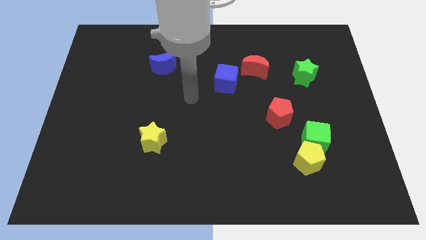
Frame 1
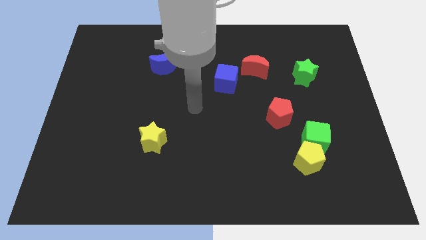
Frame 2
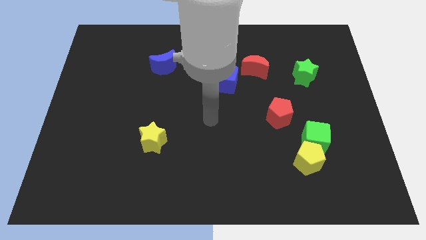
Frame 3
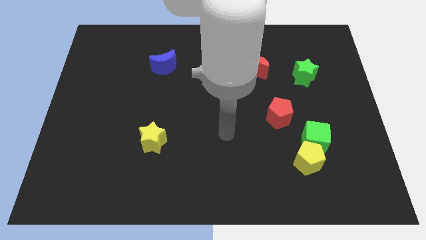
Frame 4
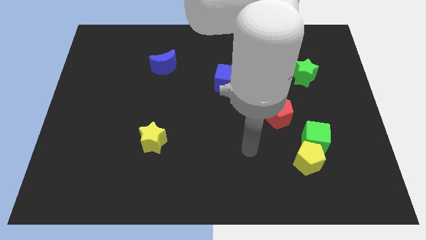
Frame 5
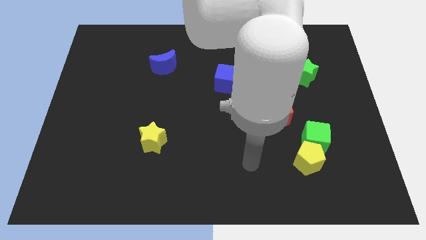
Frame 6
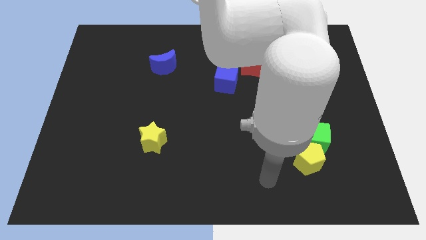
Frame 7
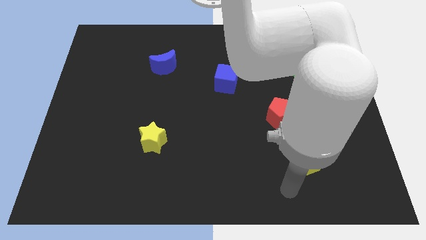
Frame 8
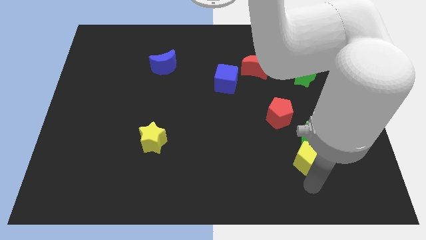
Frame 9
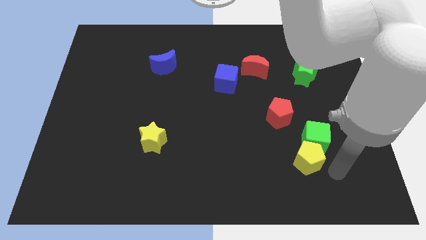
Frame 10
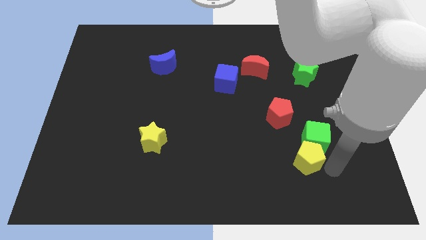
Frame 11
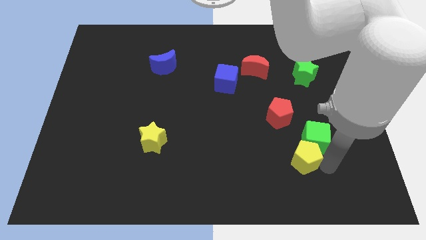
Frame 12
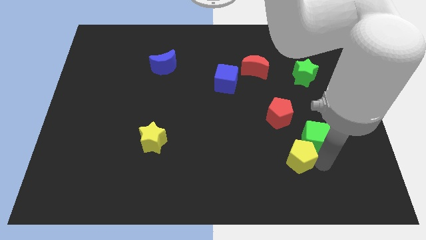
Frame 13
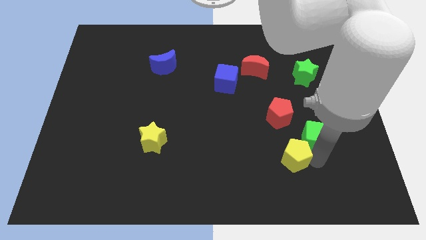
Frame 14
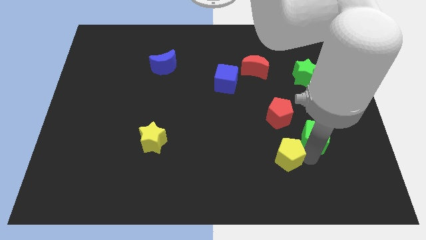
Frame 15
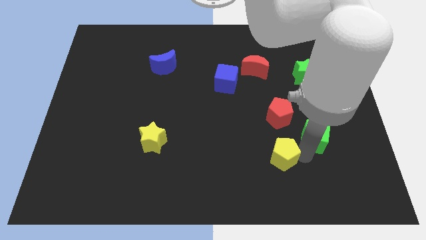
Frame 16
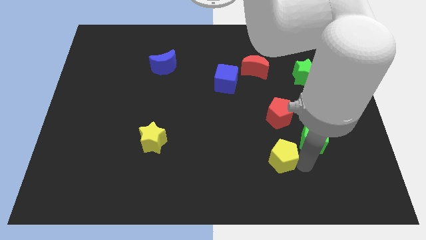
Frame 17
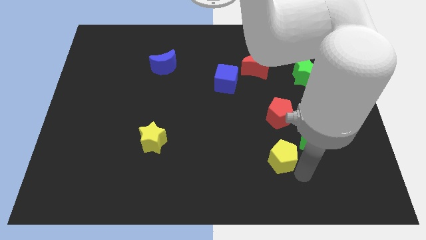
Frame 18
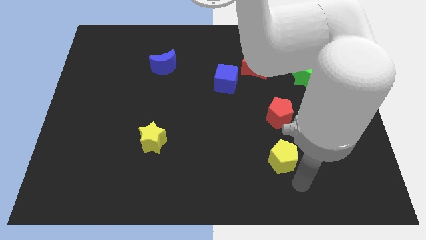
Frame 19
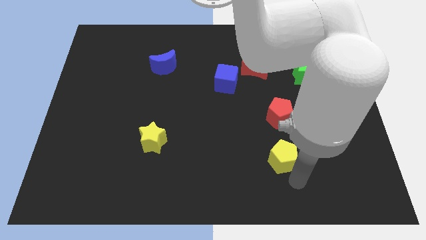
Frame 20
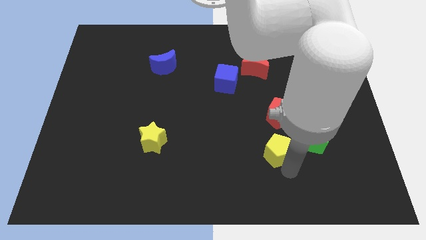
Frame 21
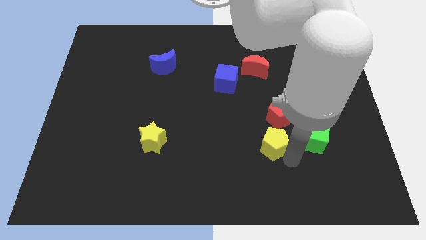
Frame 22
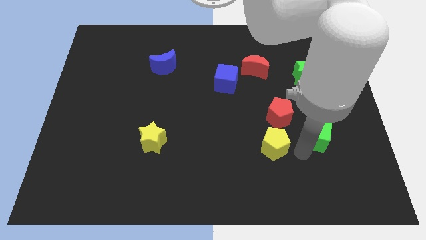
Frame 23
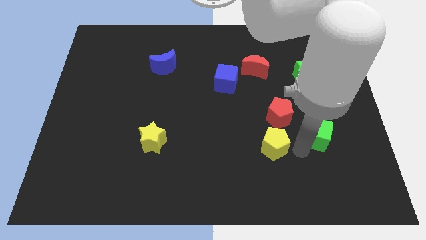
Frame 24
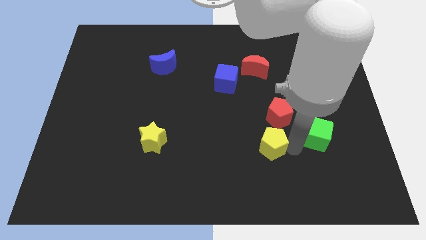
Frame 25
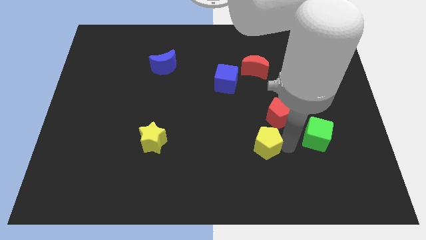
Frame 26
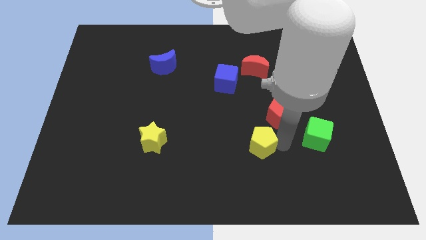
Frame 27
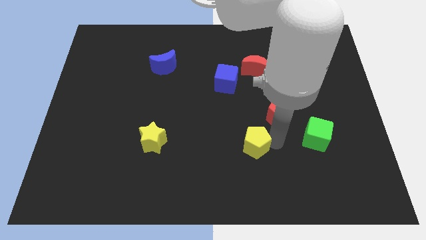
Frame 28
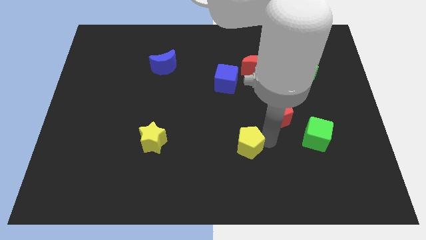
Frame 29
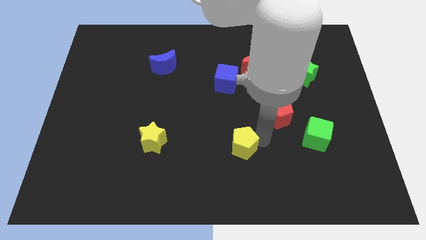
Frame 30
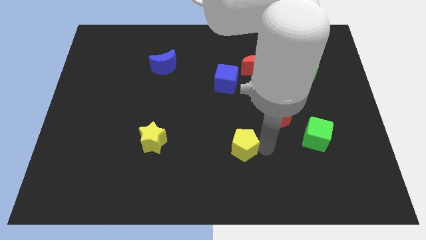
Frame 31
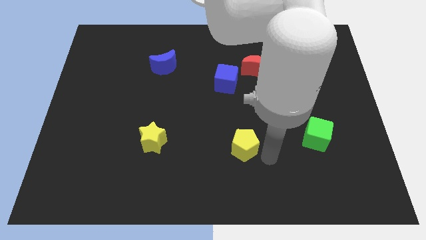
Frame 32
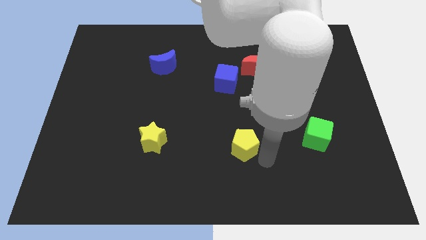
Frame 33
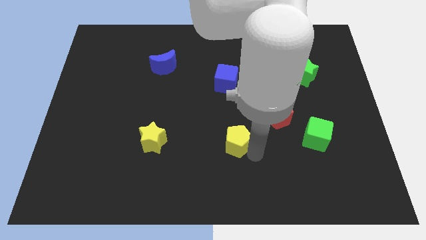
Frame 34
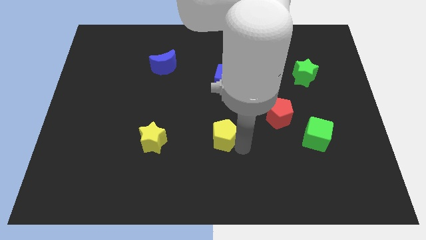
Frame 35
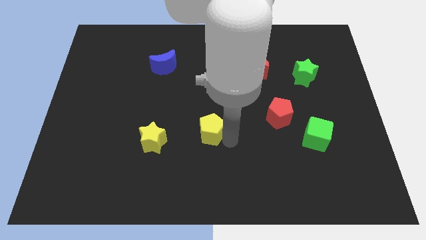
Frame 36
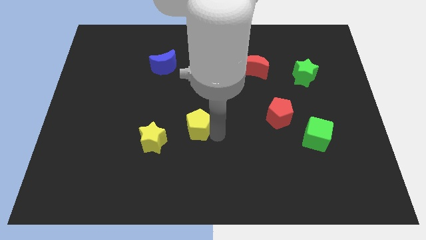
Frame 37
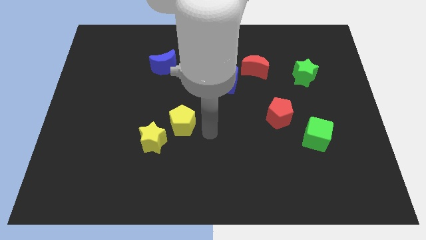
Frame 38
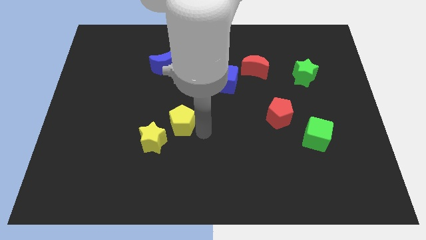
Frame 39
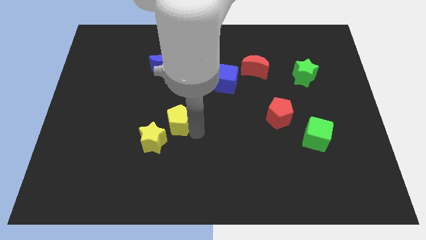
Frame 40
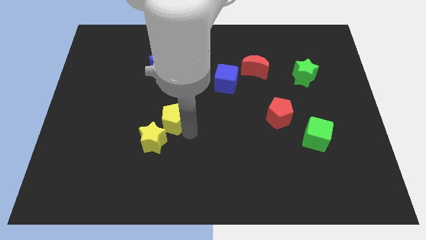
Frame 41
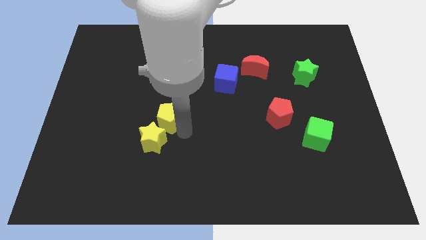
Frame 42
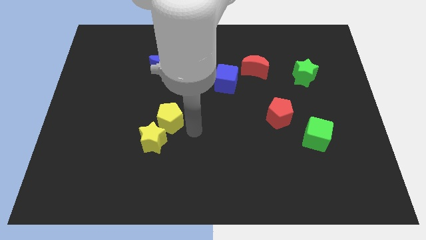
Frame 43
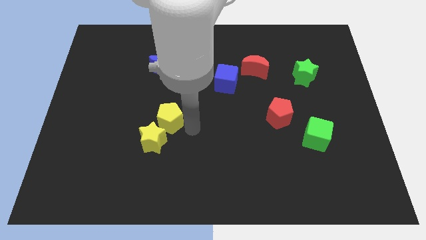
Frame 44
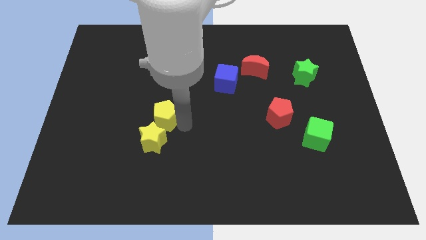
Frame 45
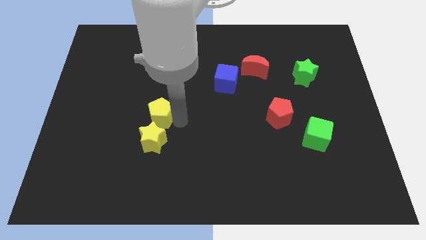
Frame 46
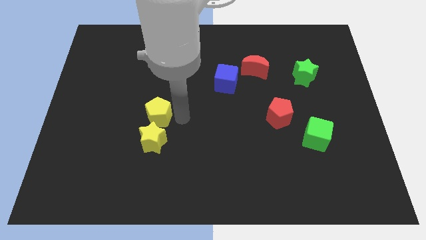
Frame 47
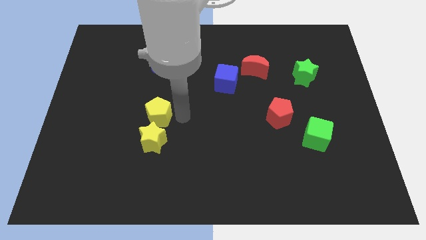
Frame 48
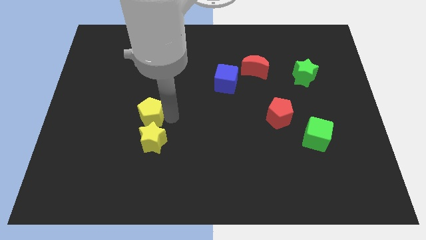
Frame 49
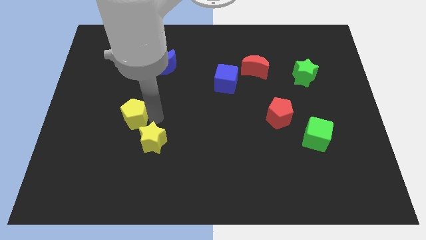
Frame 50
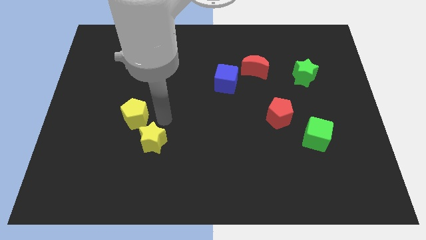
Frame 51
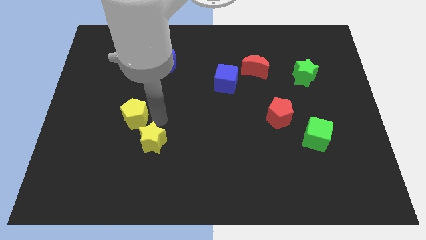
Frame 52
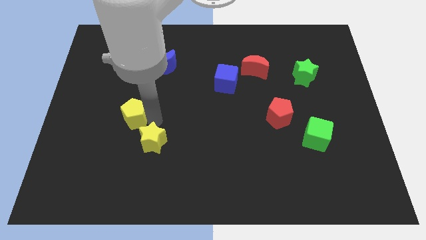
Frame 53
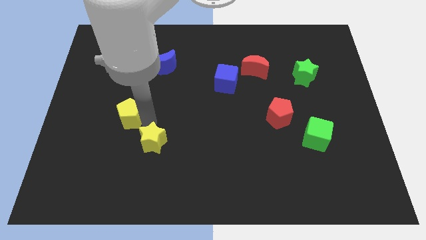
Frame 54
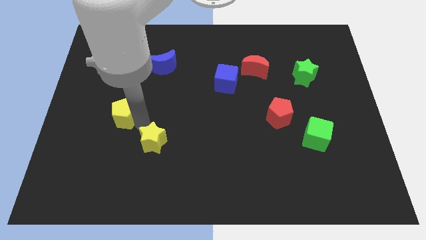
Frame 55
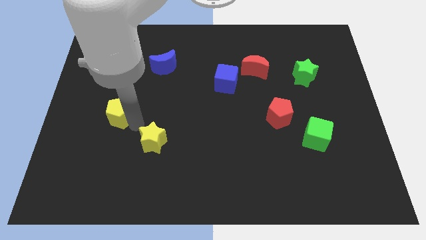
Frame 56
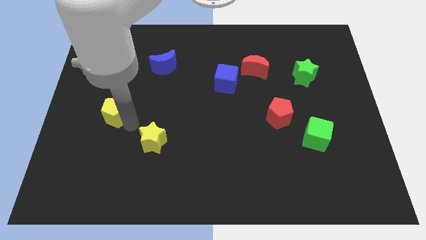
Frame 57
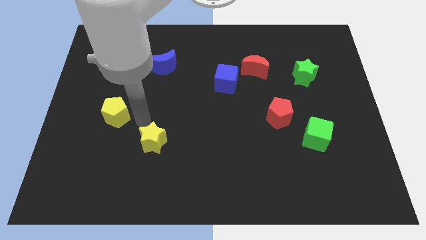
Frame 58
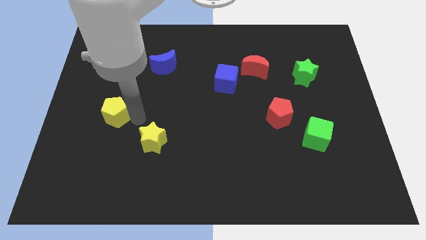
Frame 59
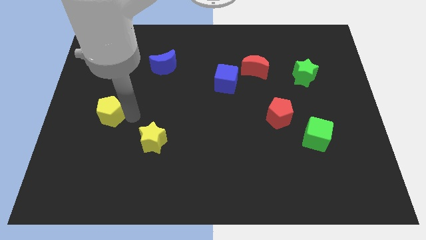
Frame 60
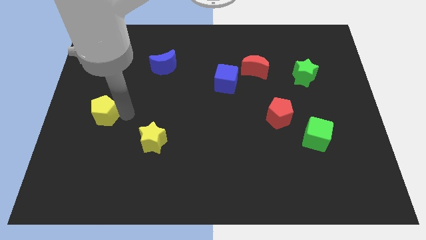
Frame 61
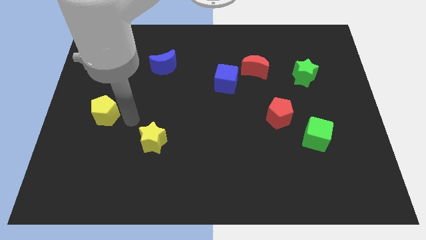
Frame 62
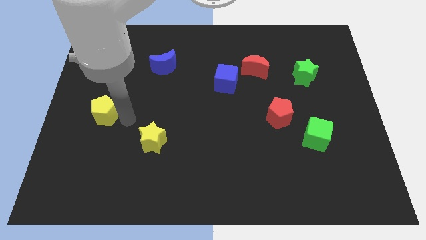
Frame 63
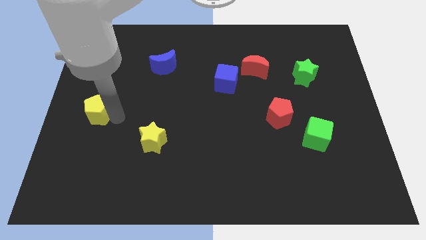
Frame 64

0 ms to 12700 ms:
push the yellow pentagon to the center left

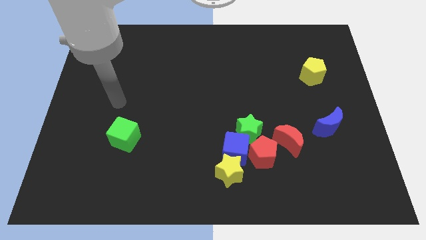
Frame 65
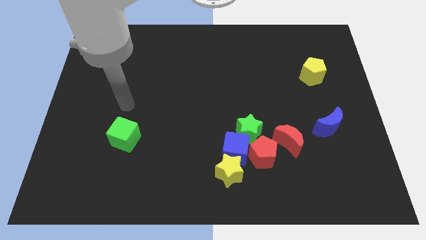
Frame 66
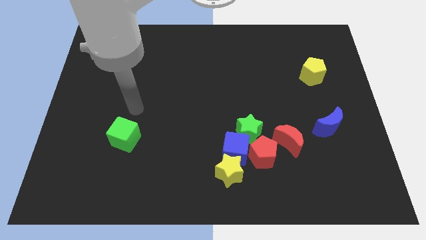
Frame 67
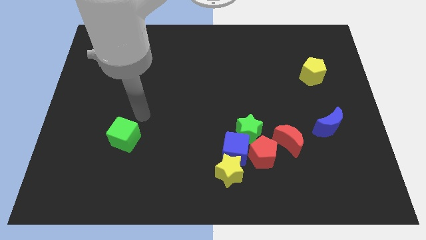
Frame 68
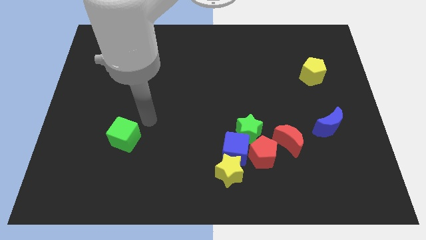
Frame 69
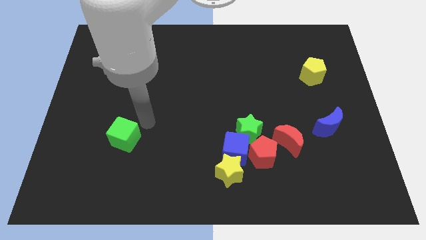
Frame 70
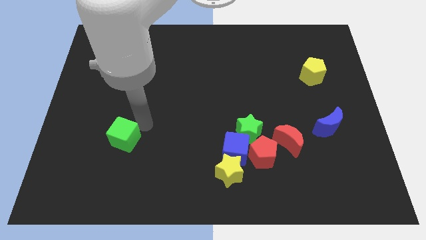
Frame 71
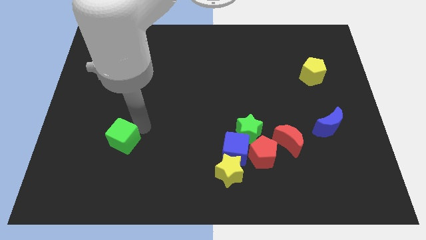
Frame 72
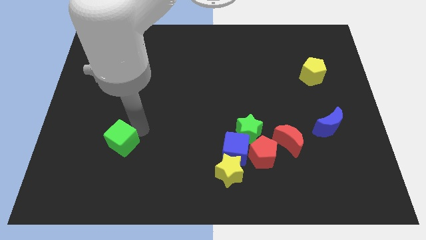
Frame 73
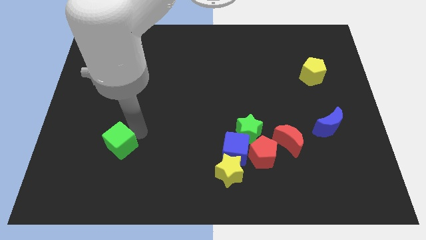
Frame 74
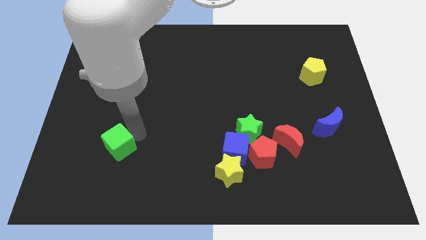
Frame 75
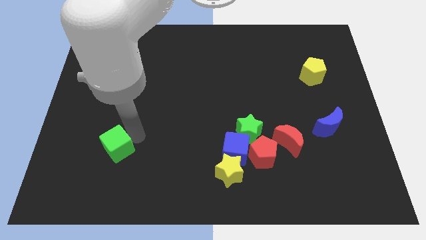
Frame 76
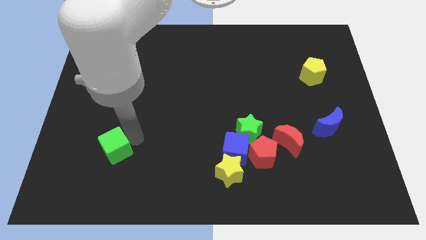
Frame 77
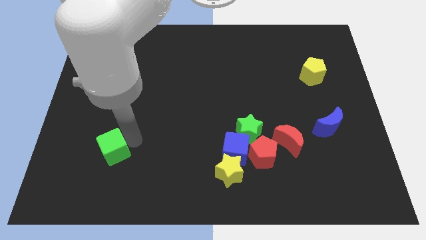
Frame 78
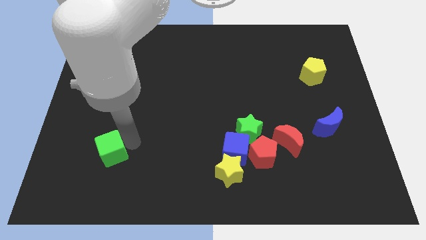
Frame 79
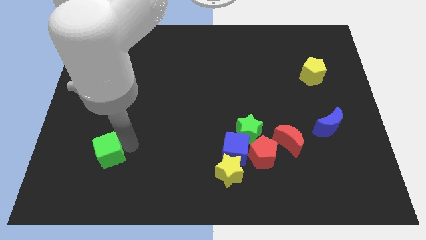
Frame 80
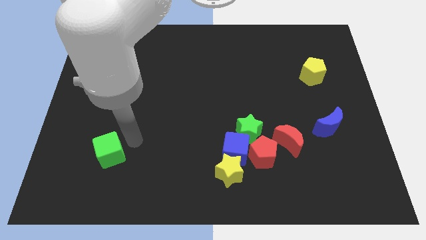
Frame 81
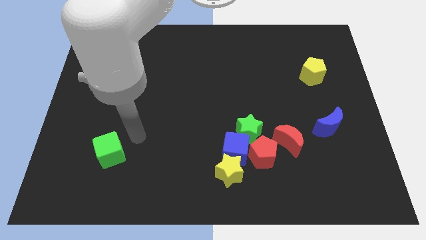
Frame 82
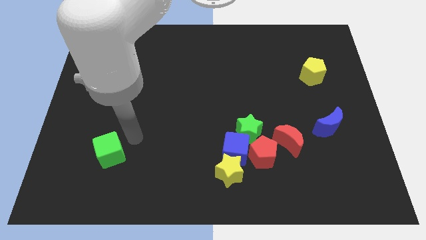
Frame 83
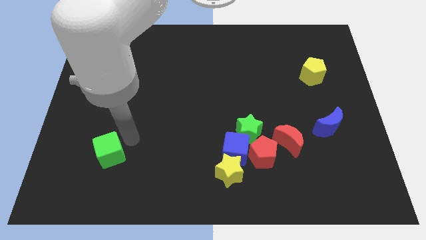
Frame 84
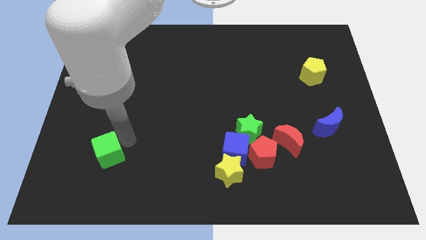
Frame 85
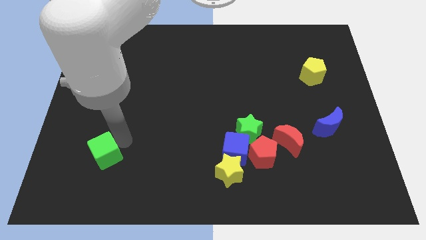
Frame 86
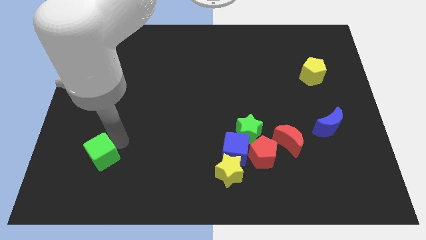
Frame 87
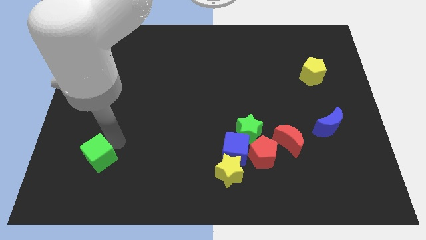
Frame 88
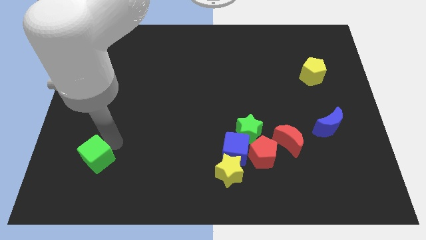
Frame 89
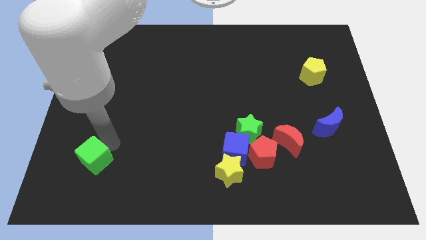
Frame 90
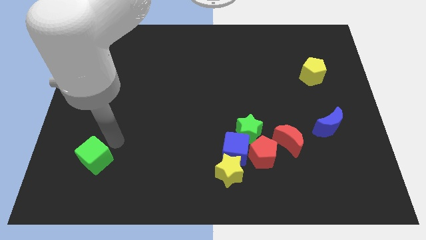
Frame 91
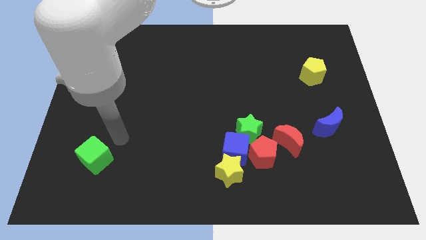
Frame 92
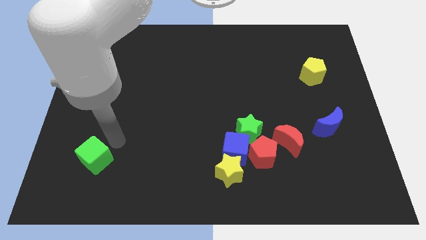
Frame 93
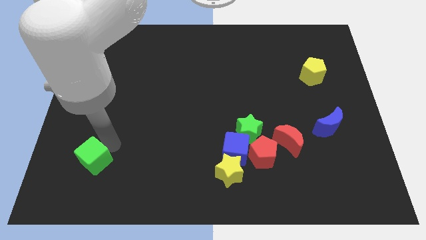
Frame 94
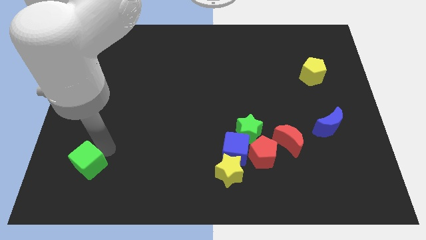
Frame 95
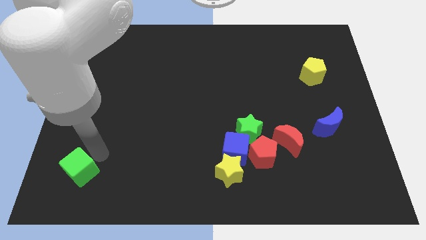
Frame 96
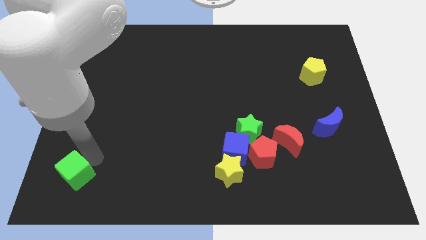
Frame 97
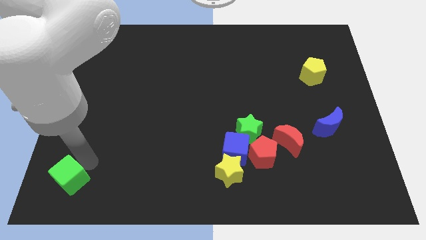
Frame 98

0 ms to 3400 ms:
slide the green cube to the bottom left
